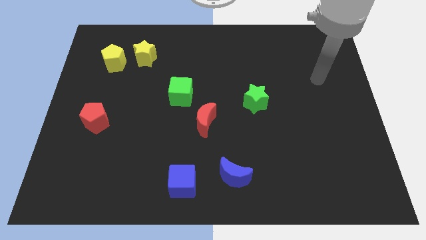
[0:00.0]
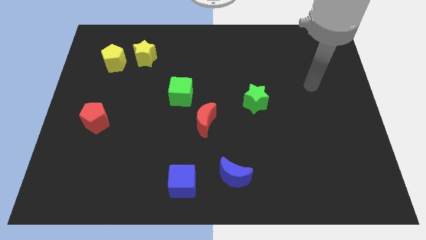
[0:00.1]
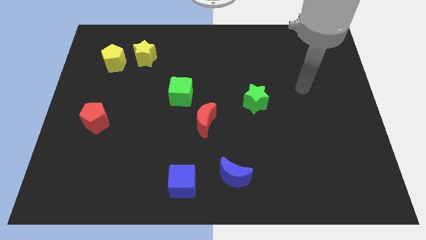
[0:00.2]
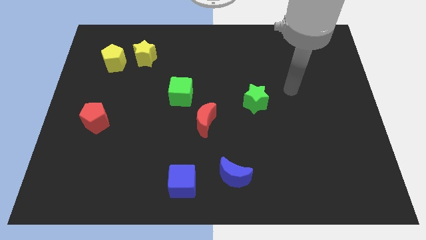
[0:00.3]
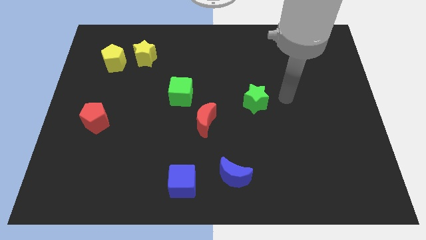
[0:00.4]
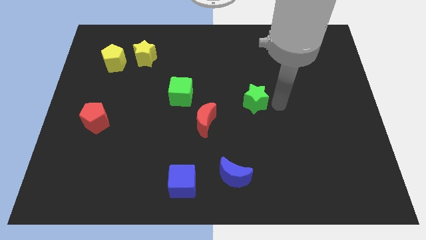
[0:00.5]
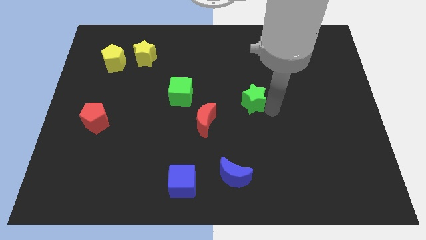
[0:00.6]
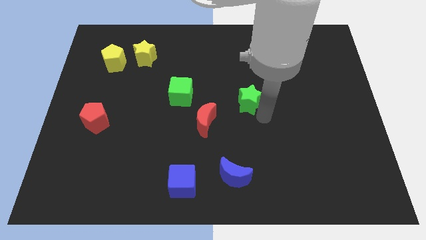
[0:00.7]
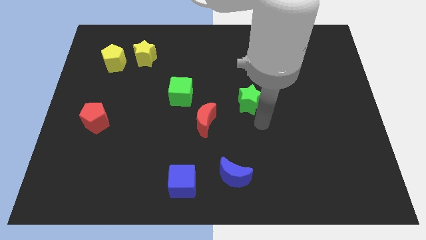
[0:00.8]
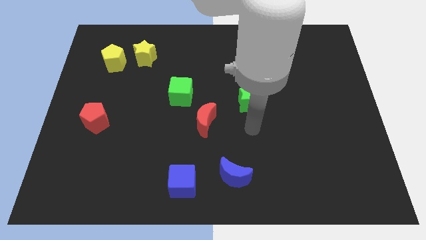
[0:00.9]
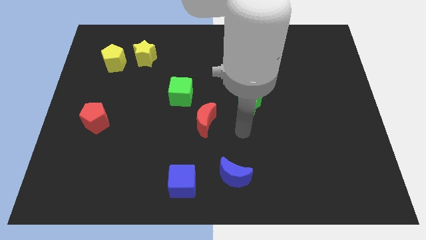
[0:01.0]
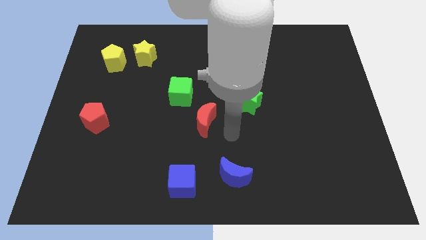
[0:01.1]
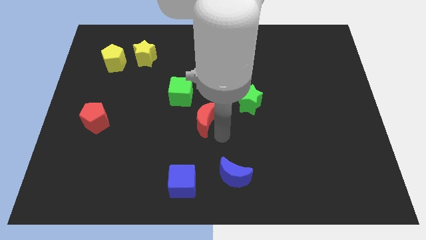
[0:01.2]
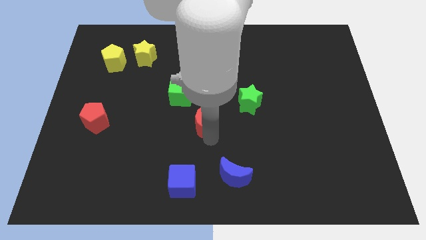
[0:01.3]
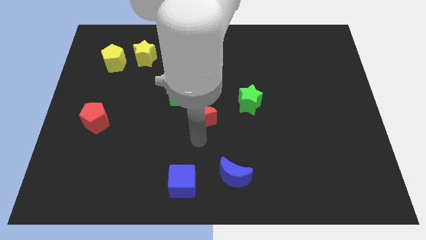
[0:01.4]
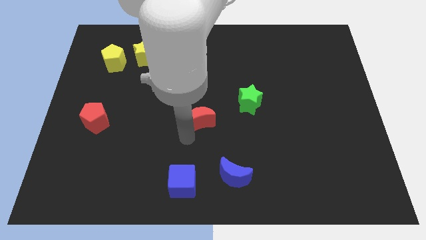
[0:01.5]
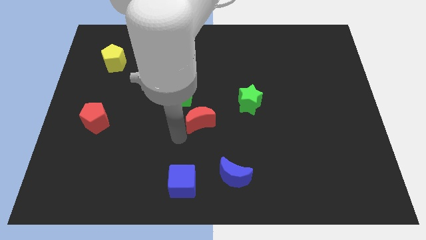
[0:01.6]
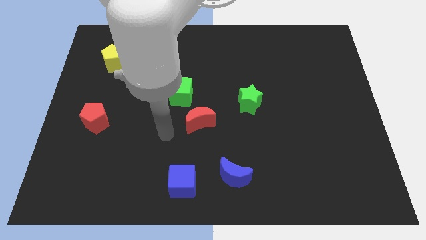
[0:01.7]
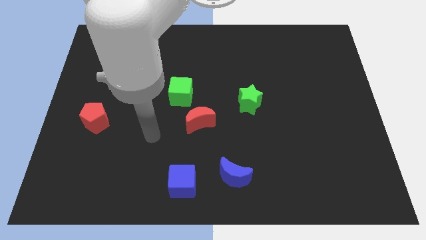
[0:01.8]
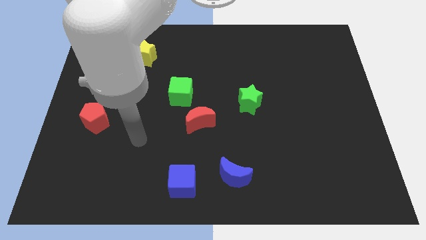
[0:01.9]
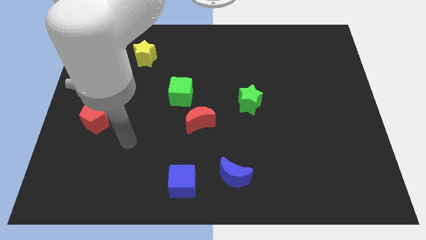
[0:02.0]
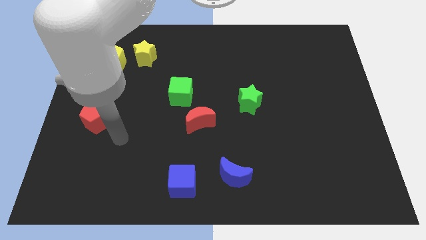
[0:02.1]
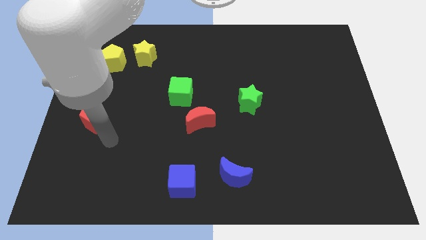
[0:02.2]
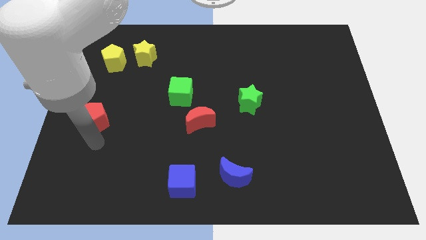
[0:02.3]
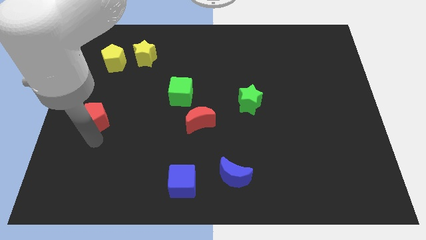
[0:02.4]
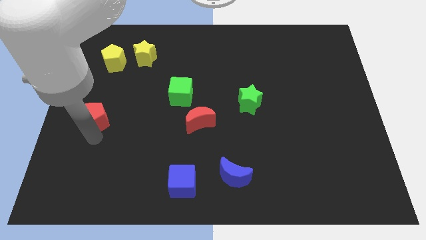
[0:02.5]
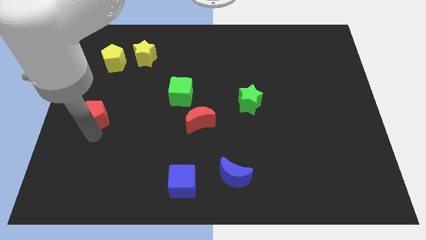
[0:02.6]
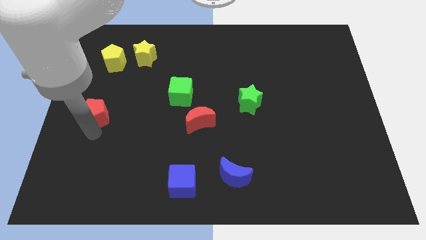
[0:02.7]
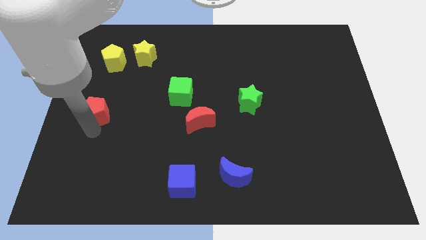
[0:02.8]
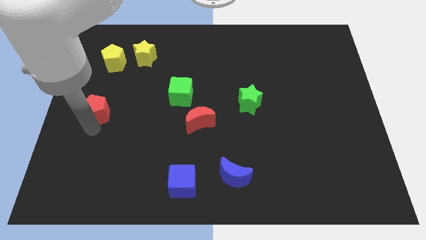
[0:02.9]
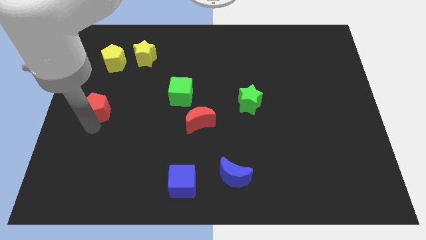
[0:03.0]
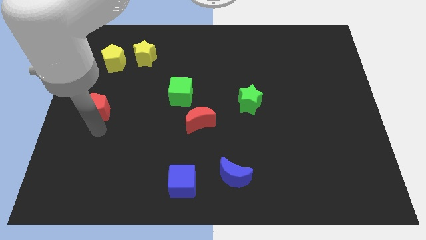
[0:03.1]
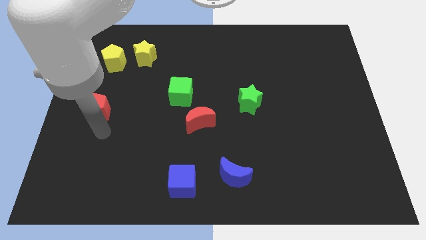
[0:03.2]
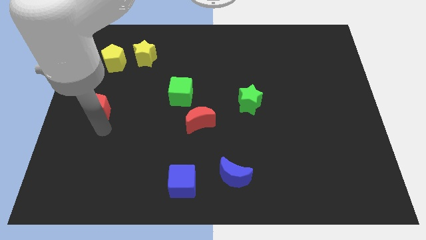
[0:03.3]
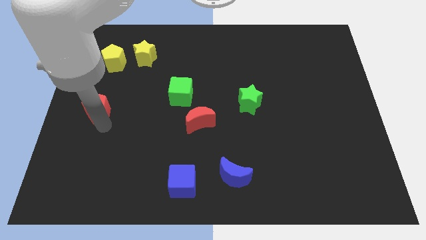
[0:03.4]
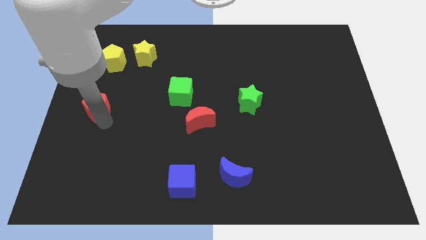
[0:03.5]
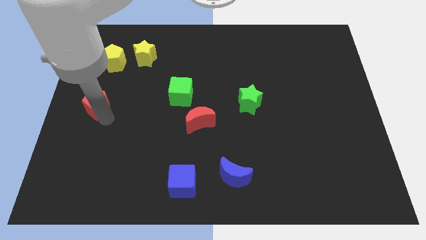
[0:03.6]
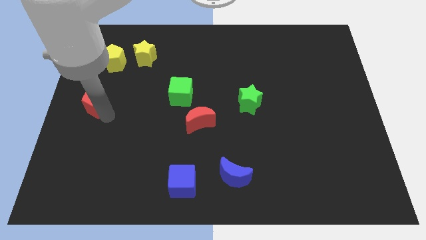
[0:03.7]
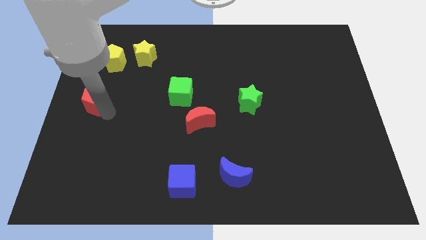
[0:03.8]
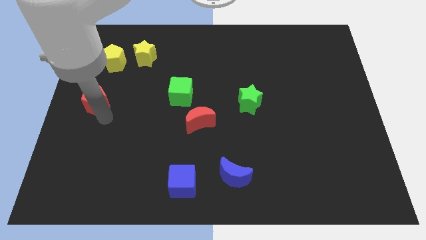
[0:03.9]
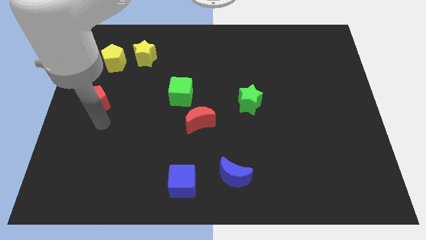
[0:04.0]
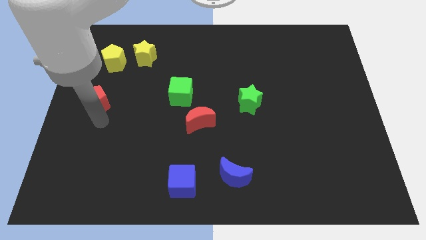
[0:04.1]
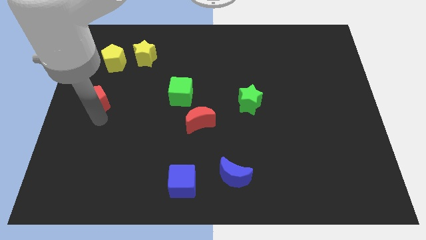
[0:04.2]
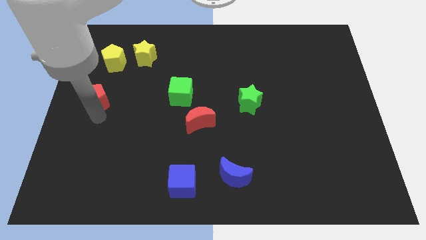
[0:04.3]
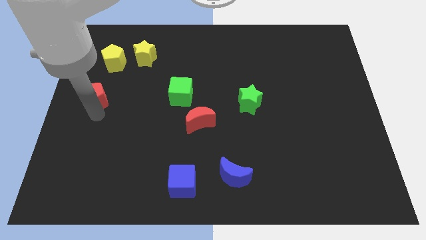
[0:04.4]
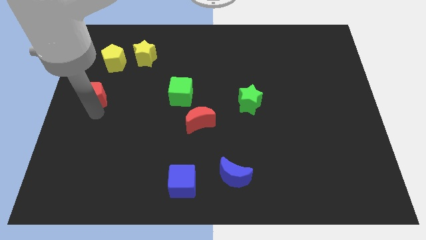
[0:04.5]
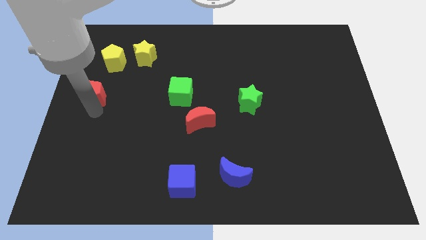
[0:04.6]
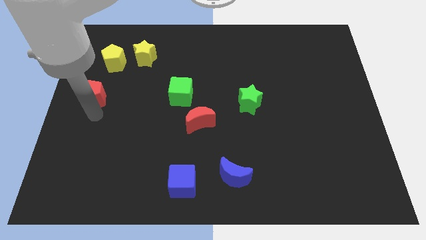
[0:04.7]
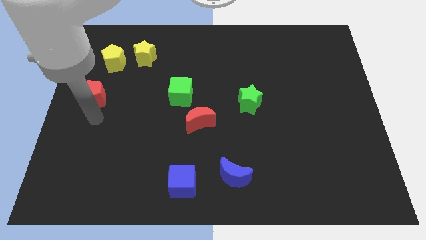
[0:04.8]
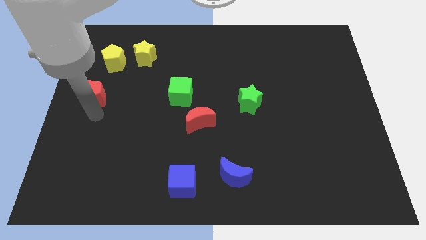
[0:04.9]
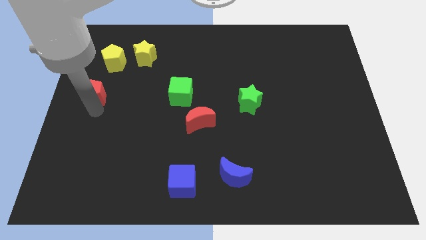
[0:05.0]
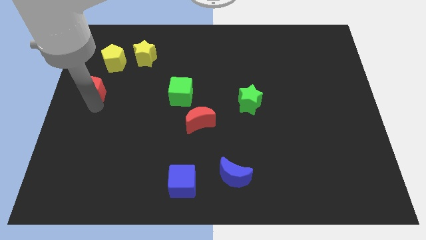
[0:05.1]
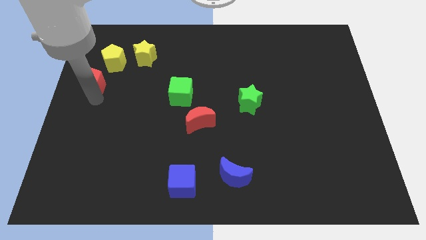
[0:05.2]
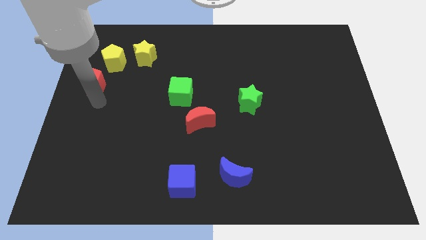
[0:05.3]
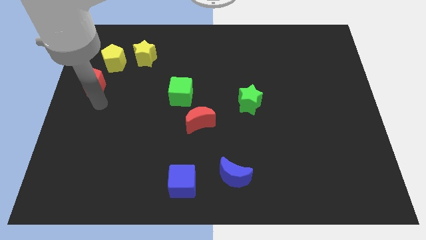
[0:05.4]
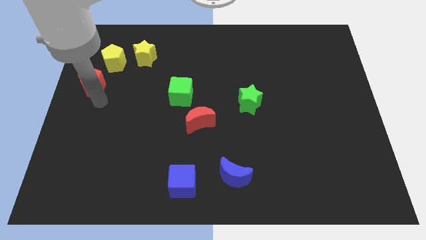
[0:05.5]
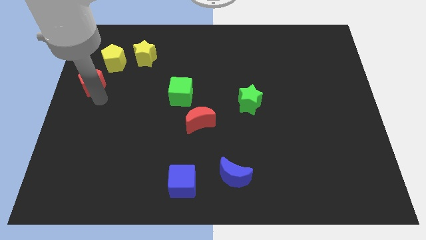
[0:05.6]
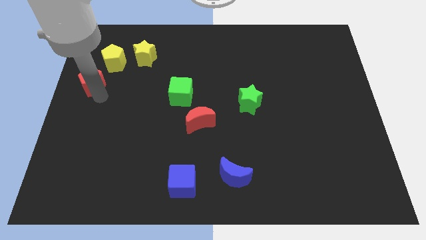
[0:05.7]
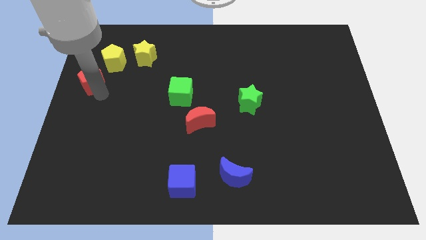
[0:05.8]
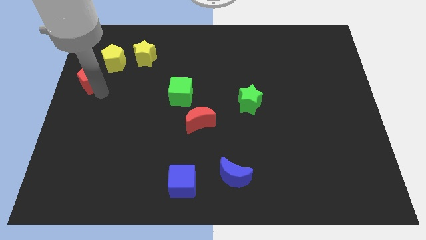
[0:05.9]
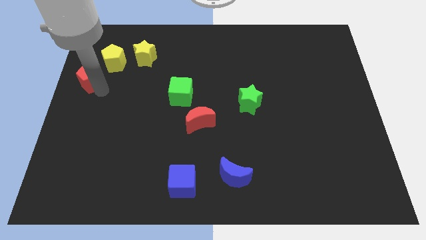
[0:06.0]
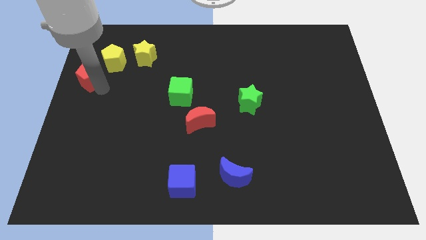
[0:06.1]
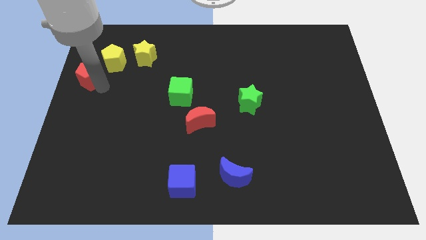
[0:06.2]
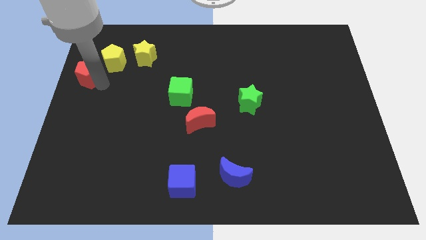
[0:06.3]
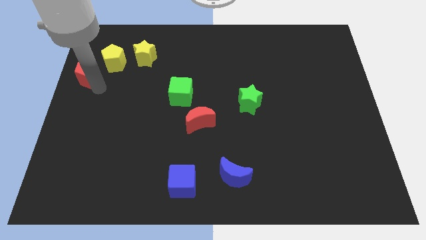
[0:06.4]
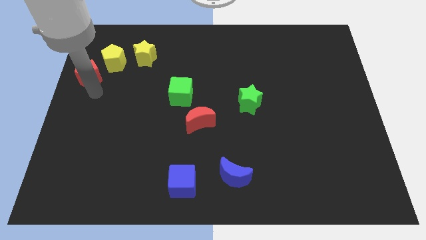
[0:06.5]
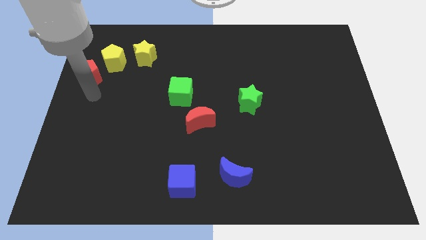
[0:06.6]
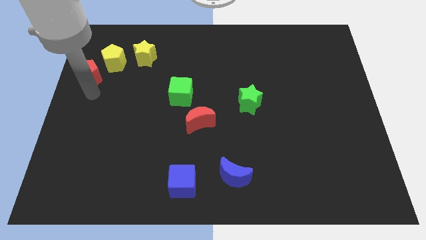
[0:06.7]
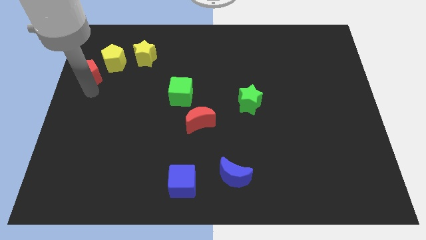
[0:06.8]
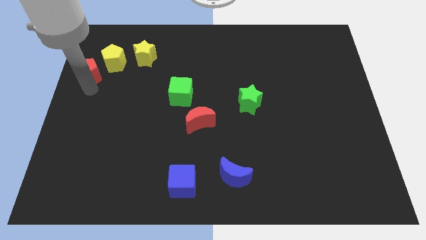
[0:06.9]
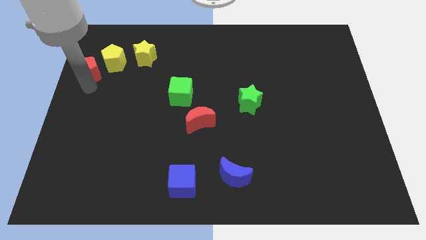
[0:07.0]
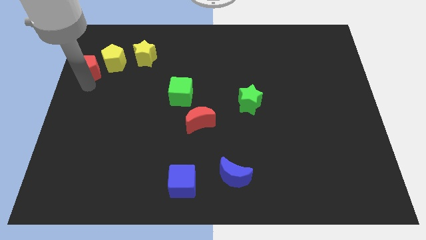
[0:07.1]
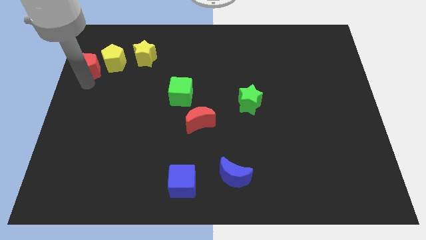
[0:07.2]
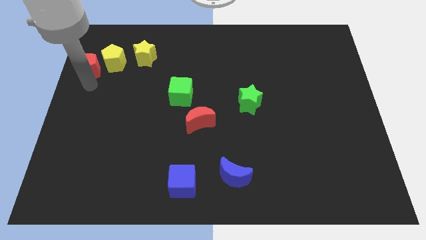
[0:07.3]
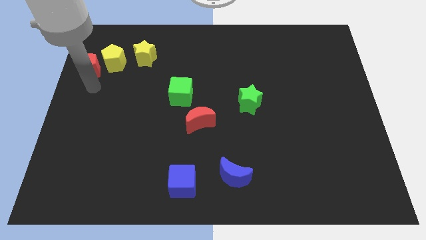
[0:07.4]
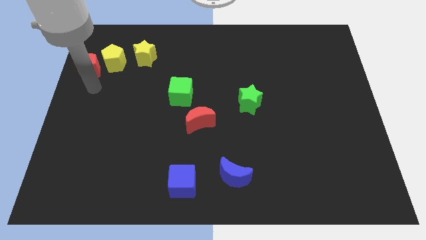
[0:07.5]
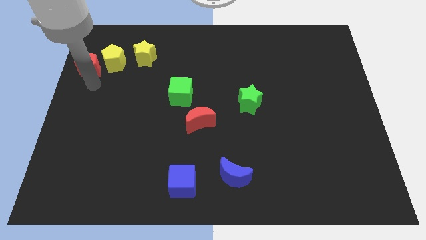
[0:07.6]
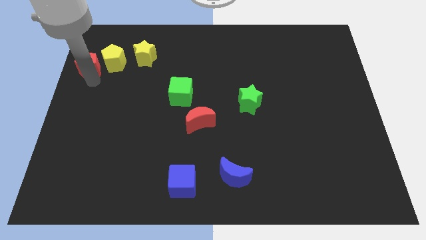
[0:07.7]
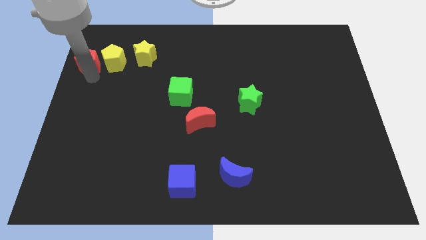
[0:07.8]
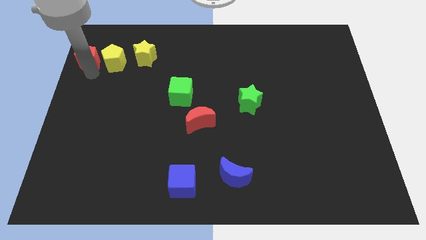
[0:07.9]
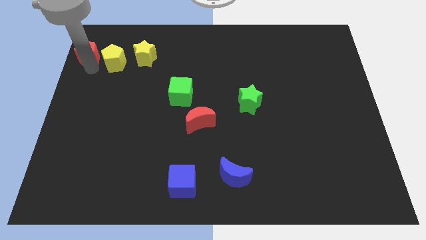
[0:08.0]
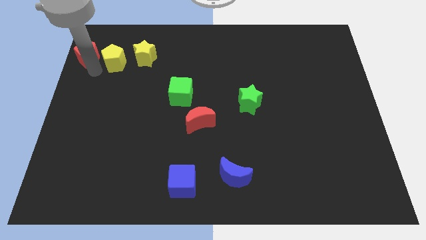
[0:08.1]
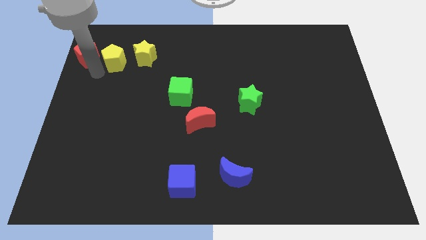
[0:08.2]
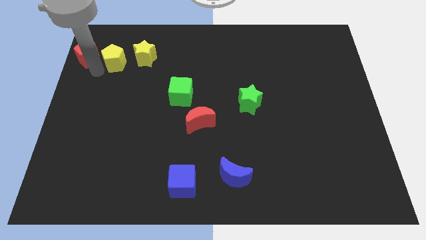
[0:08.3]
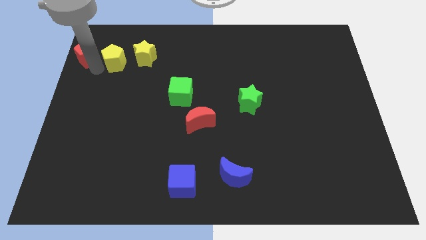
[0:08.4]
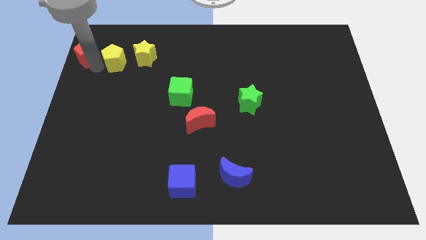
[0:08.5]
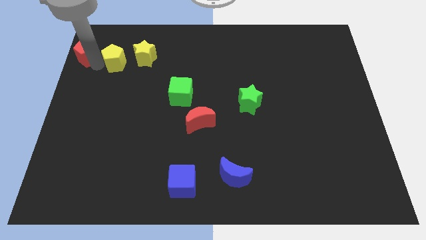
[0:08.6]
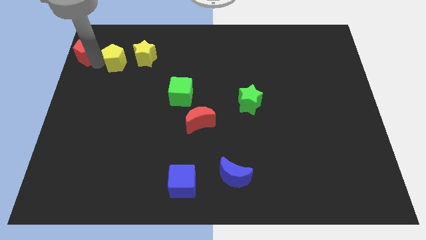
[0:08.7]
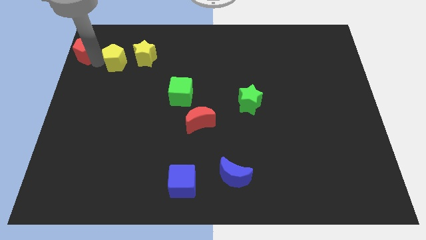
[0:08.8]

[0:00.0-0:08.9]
push the red pentagon to the top left corner
